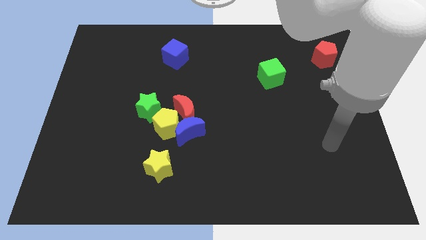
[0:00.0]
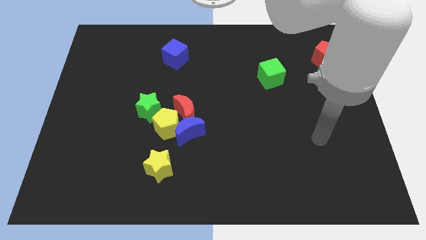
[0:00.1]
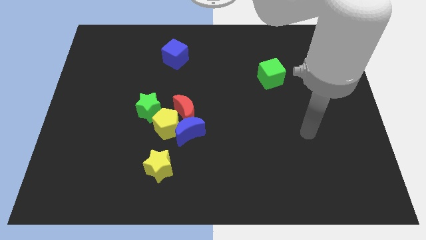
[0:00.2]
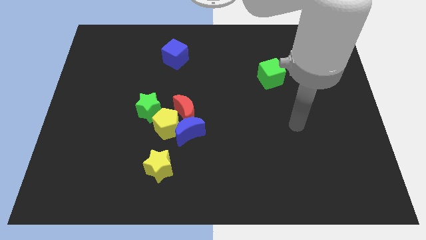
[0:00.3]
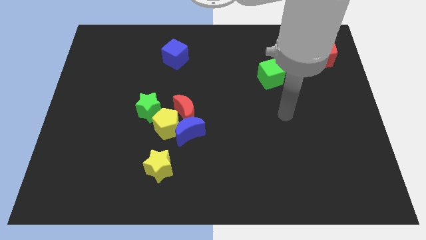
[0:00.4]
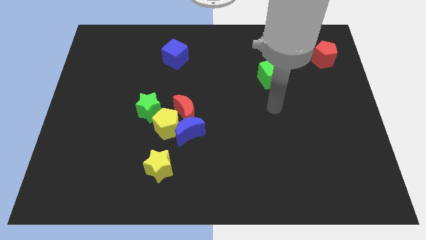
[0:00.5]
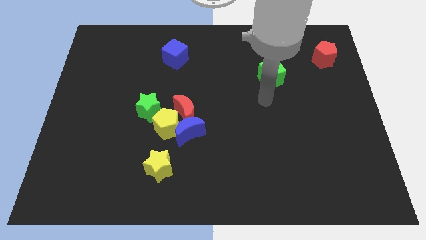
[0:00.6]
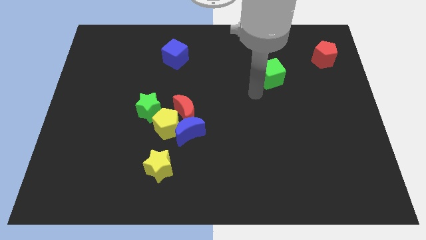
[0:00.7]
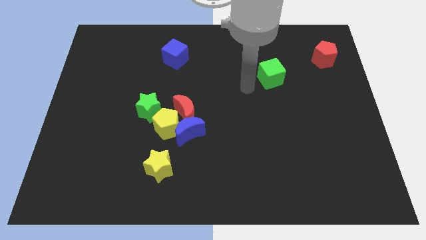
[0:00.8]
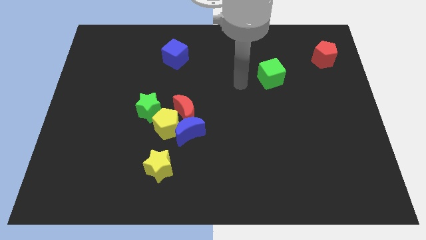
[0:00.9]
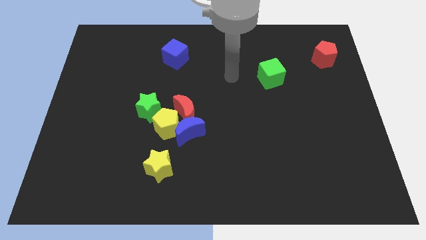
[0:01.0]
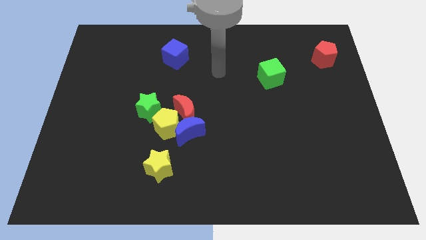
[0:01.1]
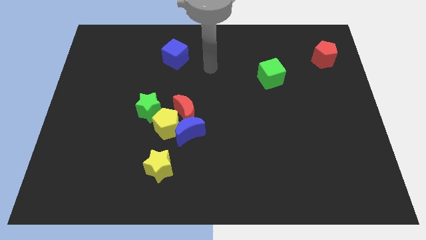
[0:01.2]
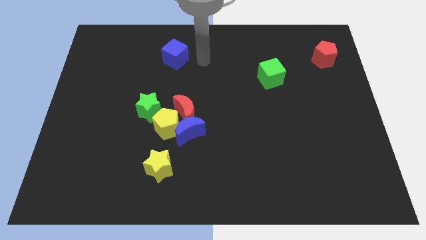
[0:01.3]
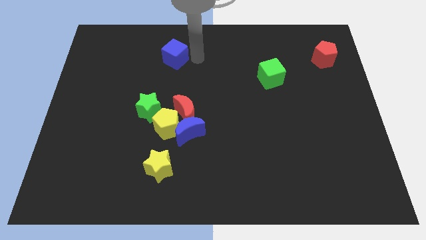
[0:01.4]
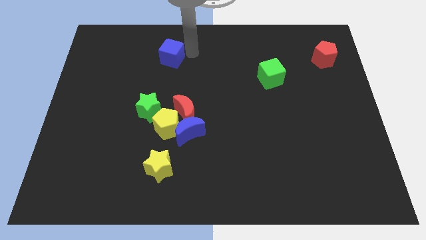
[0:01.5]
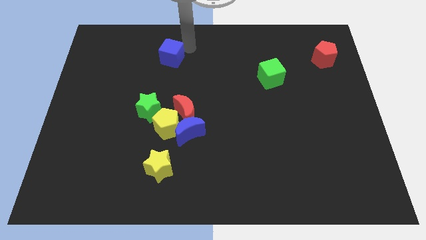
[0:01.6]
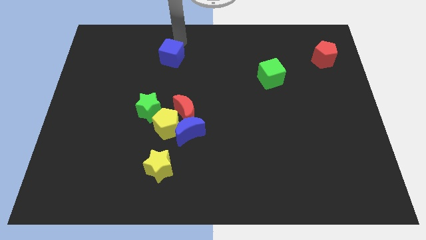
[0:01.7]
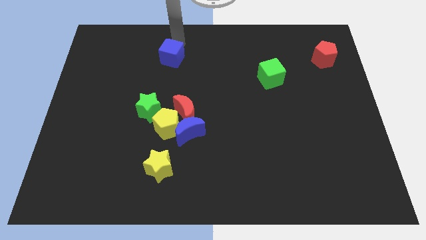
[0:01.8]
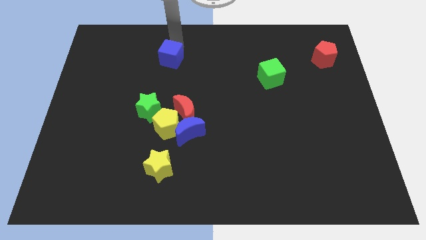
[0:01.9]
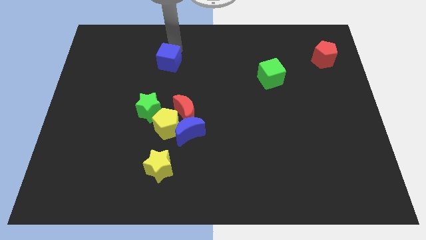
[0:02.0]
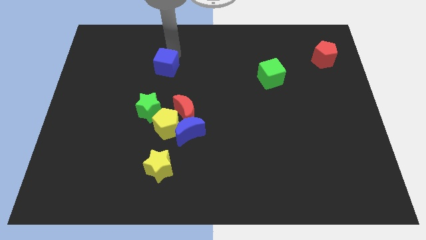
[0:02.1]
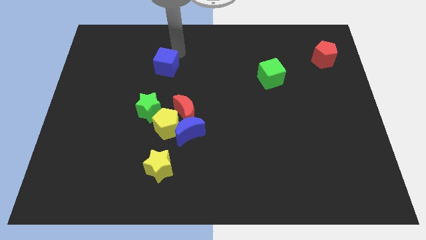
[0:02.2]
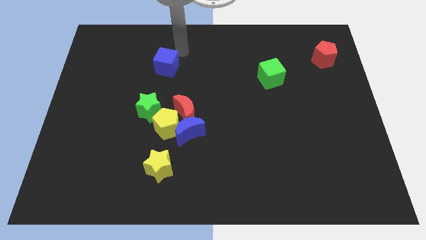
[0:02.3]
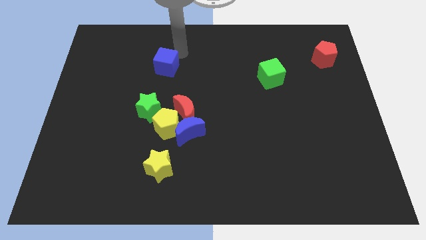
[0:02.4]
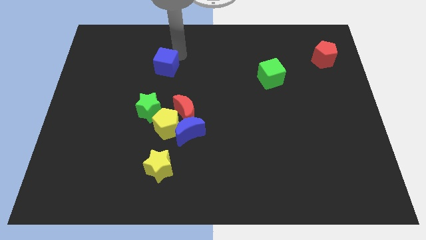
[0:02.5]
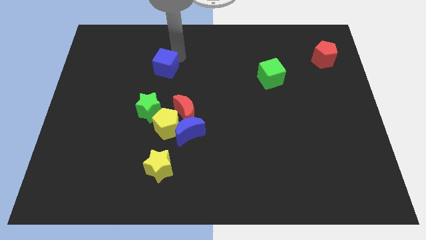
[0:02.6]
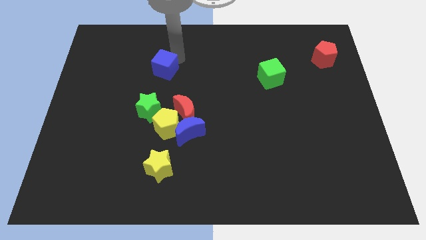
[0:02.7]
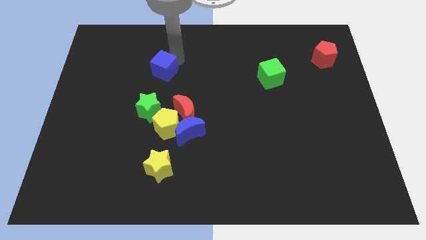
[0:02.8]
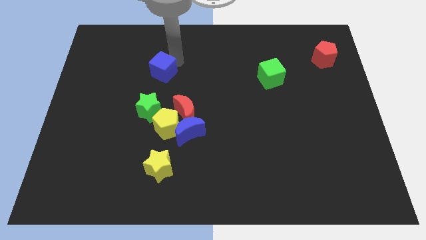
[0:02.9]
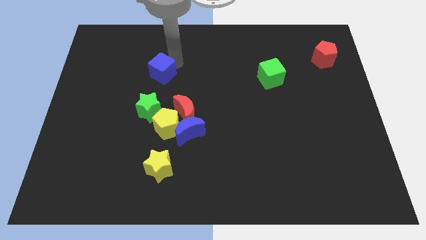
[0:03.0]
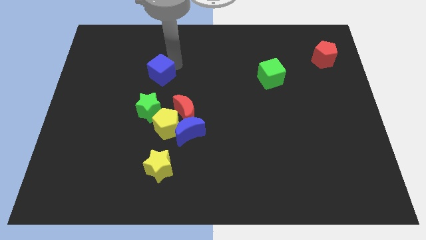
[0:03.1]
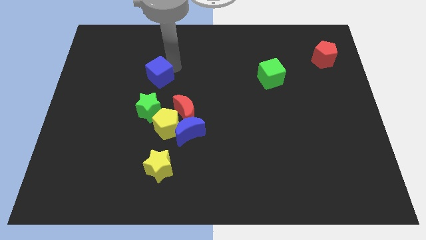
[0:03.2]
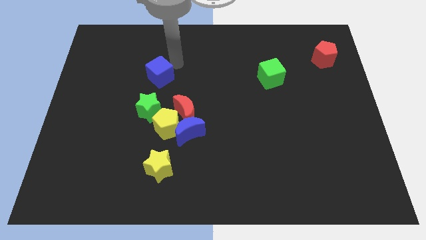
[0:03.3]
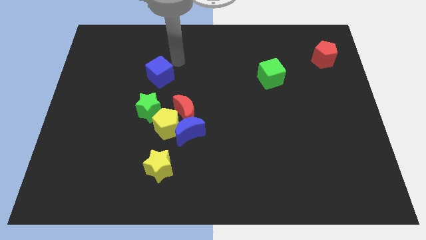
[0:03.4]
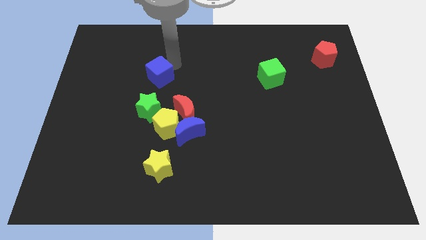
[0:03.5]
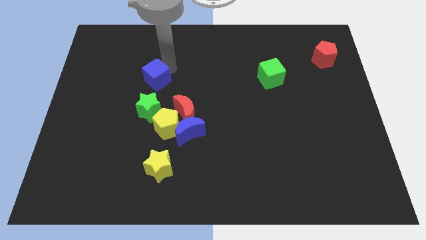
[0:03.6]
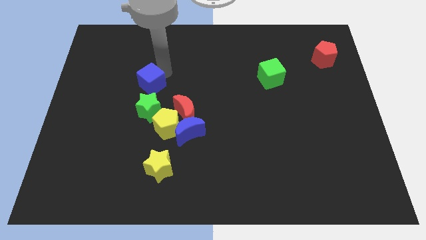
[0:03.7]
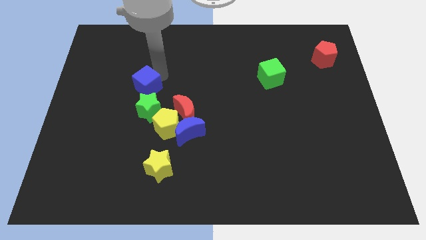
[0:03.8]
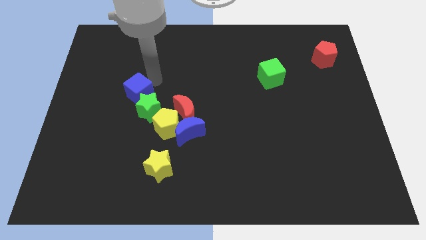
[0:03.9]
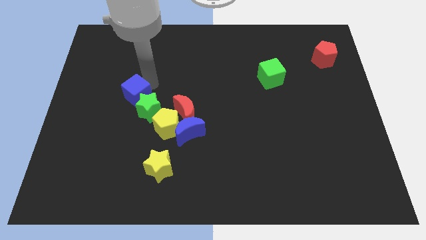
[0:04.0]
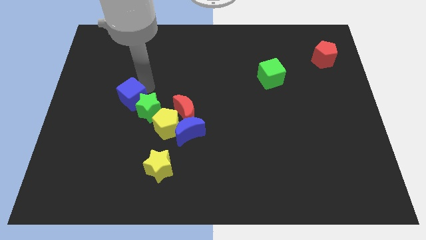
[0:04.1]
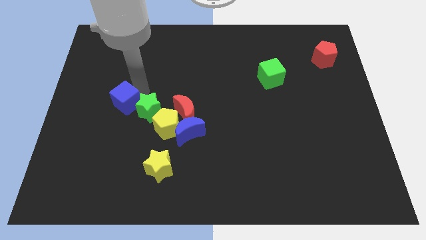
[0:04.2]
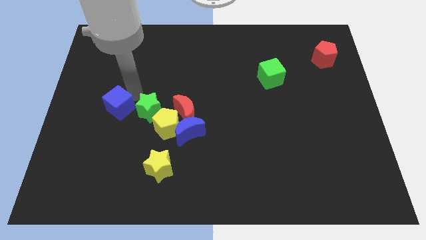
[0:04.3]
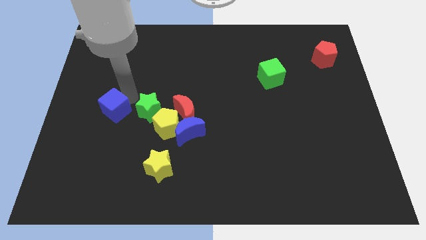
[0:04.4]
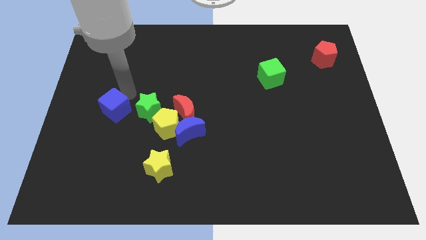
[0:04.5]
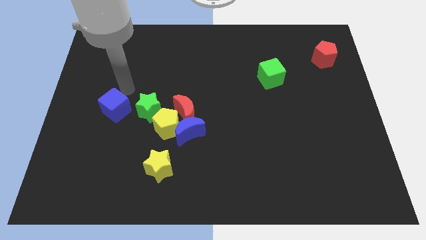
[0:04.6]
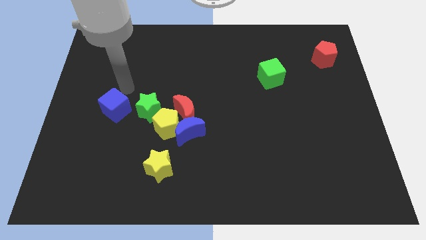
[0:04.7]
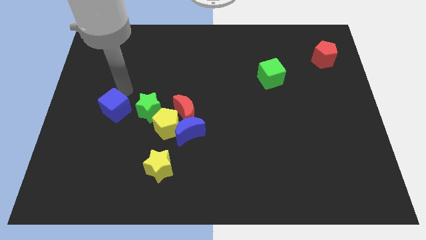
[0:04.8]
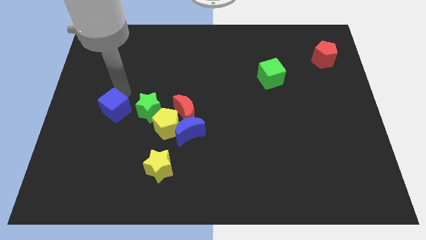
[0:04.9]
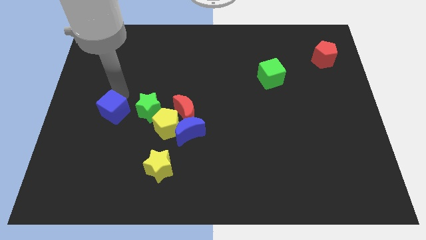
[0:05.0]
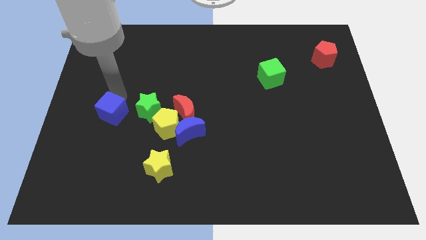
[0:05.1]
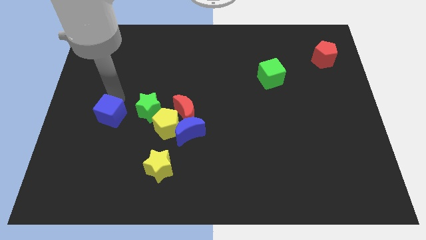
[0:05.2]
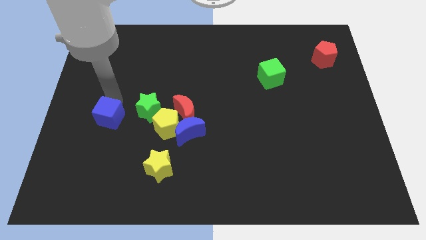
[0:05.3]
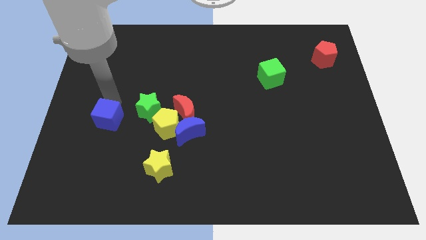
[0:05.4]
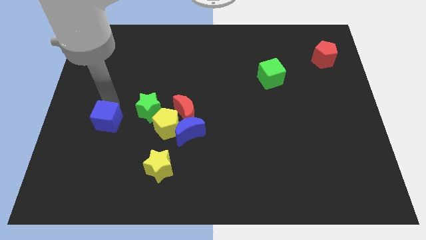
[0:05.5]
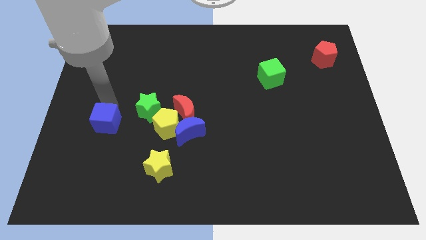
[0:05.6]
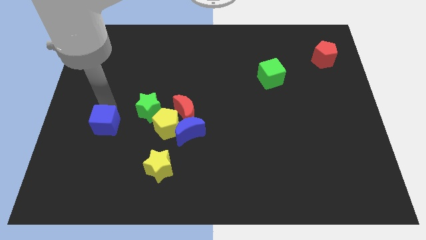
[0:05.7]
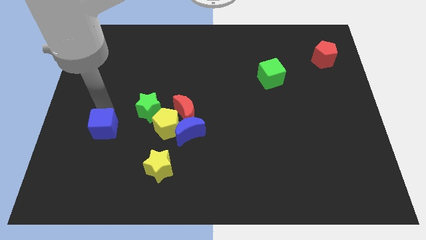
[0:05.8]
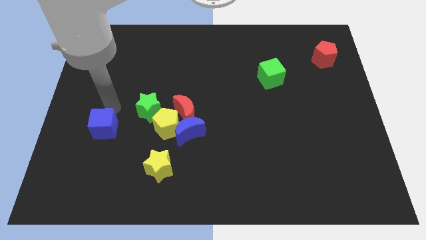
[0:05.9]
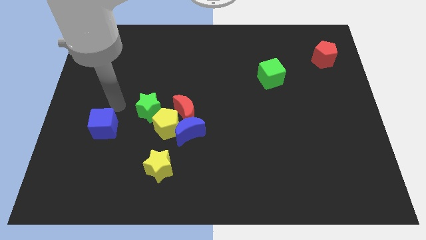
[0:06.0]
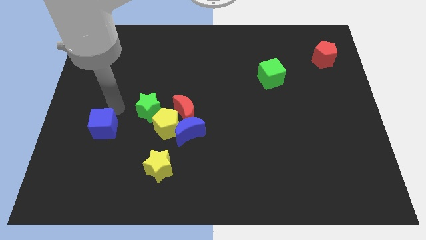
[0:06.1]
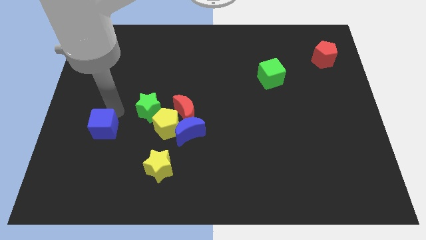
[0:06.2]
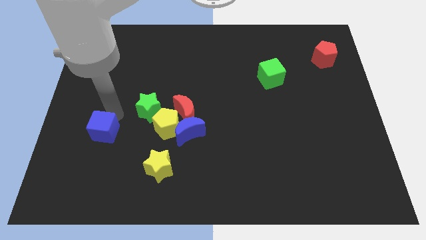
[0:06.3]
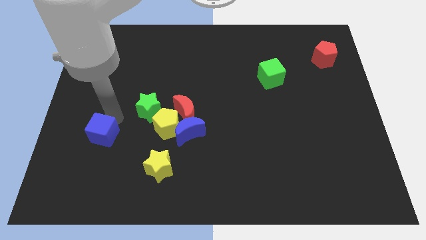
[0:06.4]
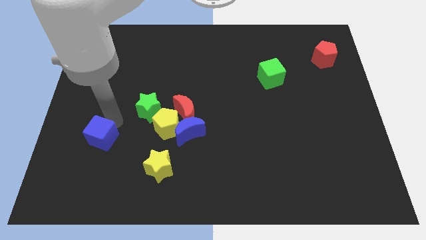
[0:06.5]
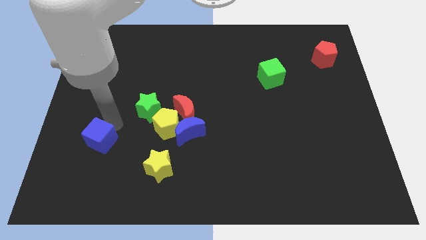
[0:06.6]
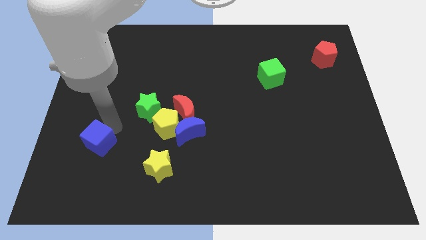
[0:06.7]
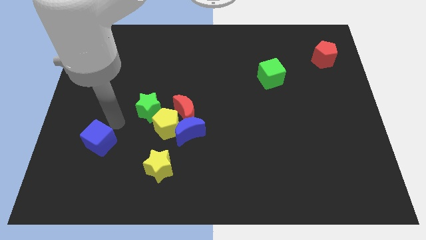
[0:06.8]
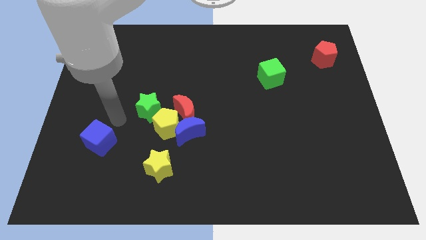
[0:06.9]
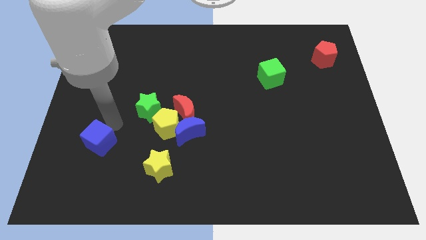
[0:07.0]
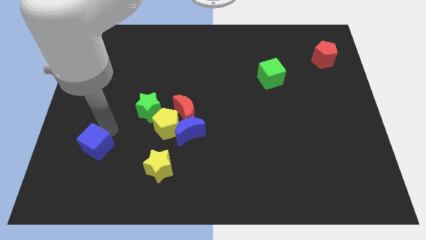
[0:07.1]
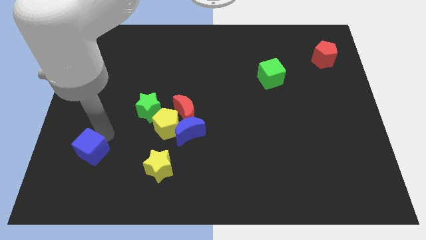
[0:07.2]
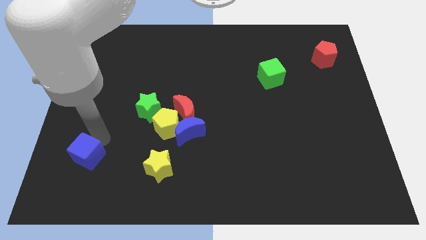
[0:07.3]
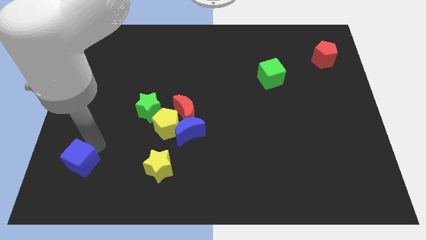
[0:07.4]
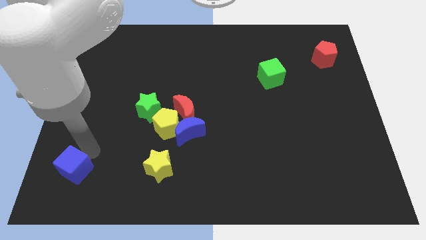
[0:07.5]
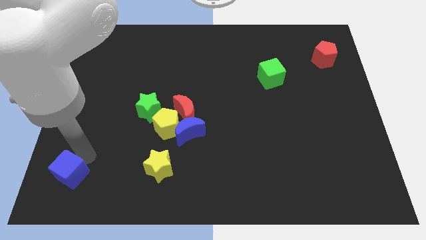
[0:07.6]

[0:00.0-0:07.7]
put the blue cube to the bottom left of the board
